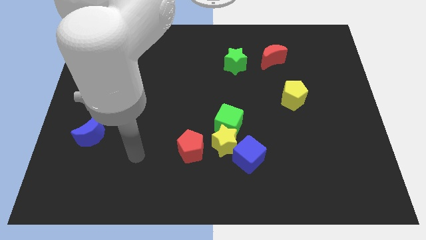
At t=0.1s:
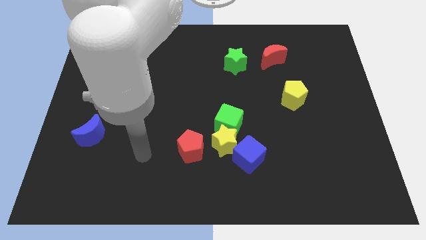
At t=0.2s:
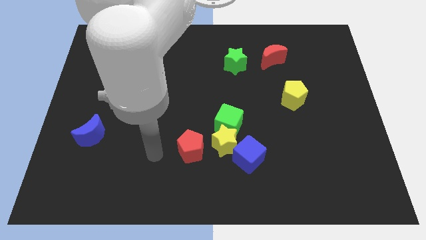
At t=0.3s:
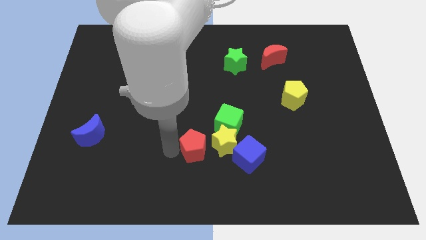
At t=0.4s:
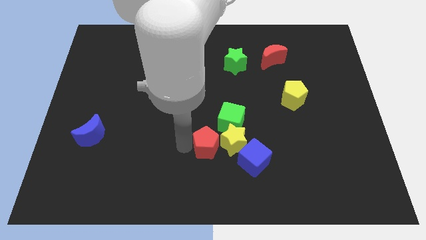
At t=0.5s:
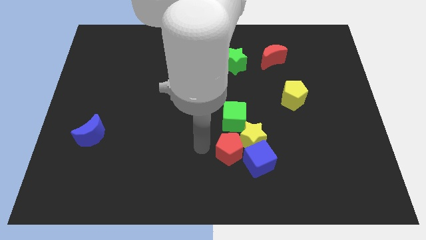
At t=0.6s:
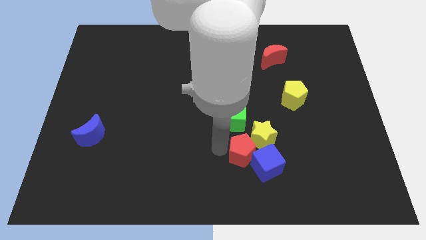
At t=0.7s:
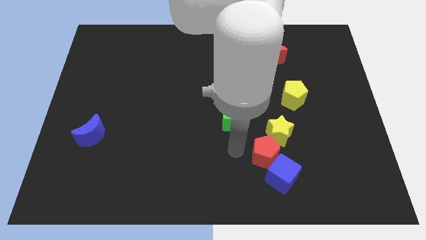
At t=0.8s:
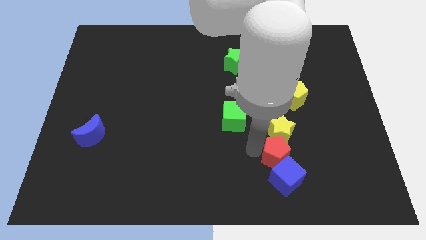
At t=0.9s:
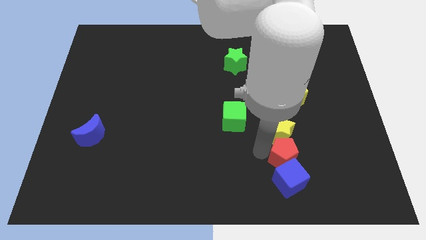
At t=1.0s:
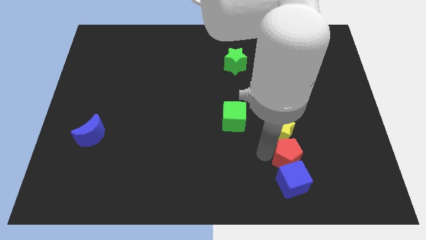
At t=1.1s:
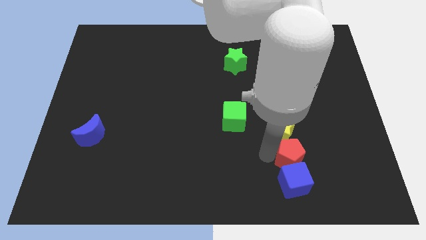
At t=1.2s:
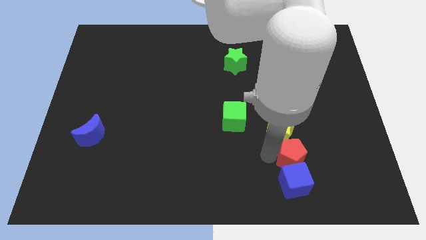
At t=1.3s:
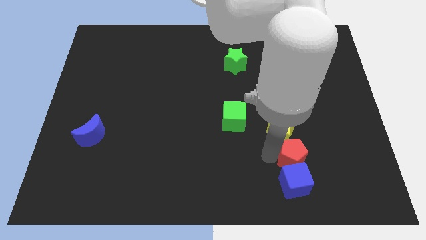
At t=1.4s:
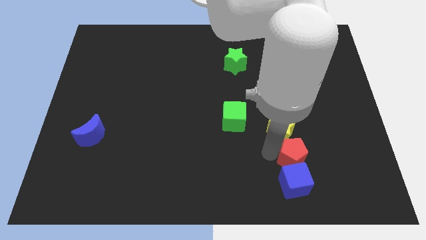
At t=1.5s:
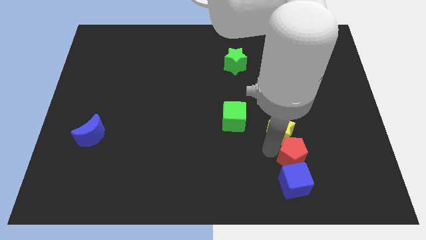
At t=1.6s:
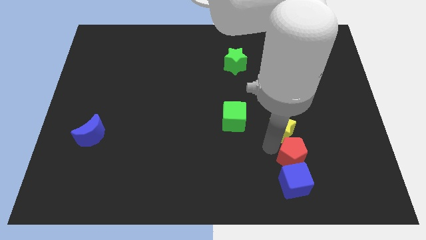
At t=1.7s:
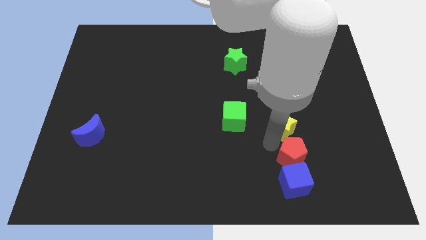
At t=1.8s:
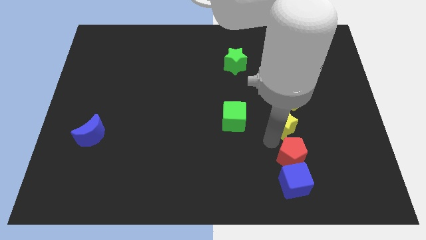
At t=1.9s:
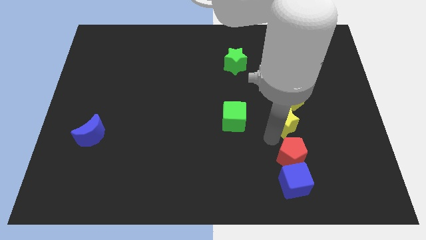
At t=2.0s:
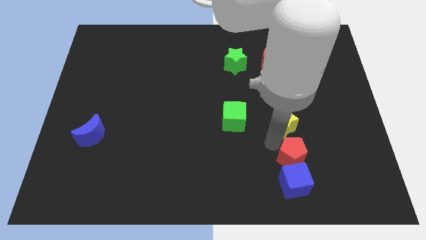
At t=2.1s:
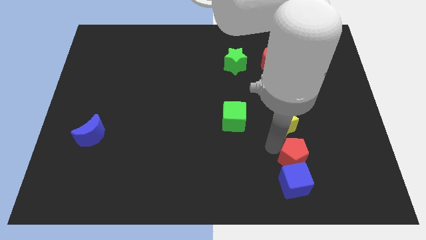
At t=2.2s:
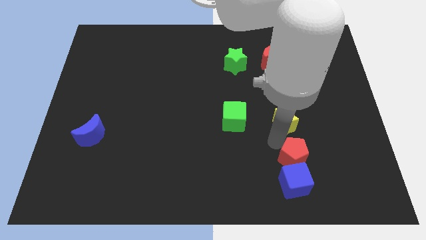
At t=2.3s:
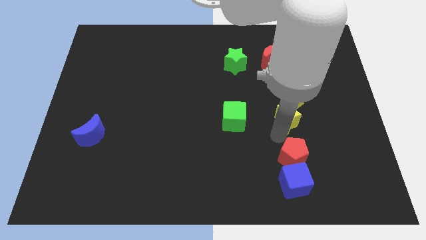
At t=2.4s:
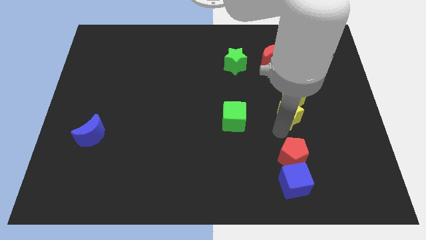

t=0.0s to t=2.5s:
move the yellow star away from the green cube, blue cube, and red pentagon

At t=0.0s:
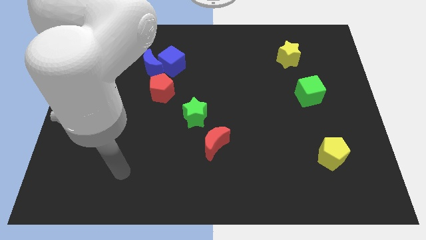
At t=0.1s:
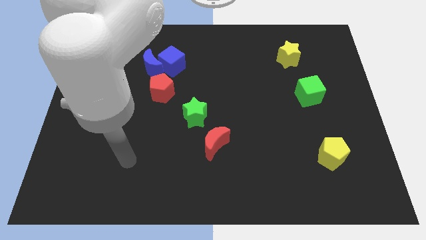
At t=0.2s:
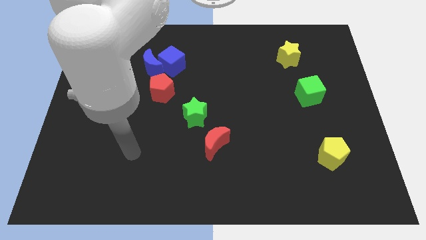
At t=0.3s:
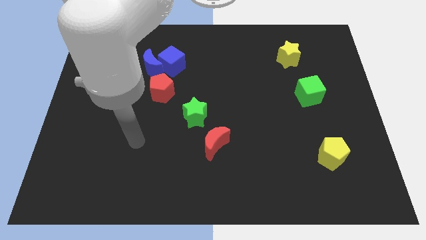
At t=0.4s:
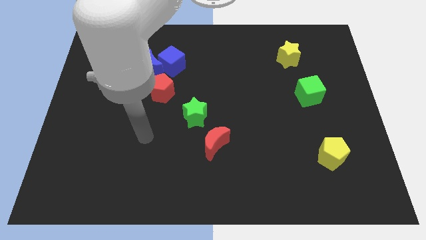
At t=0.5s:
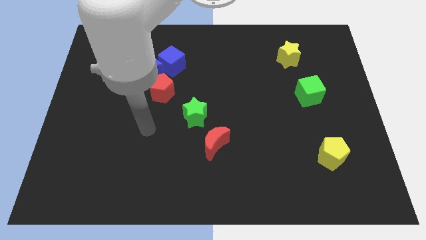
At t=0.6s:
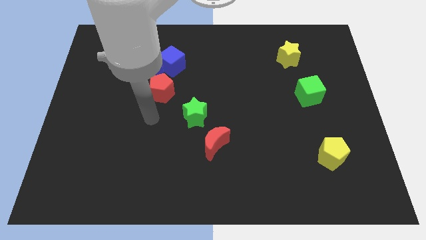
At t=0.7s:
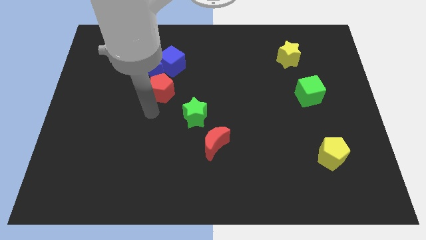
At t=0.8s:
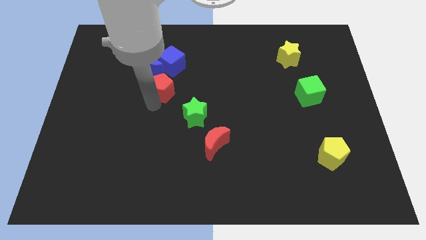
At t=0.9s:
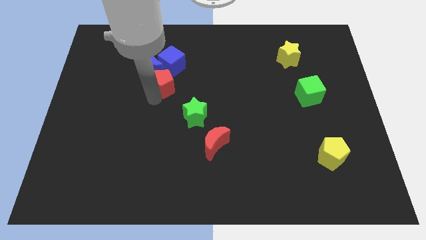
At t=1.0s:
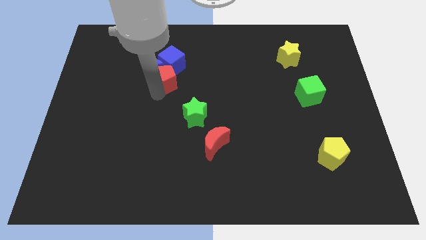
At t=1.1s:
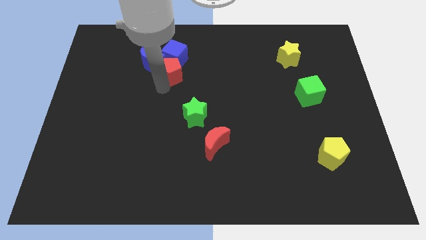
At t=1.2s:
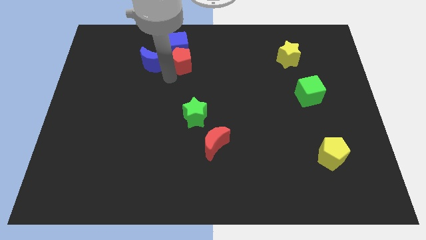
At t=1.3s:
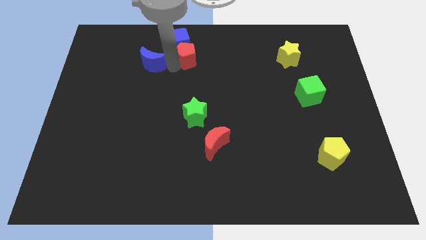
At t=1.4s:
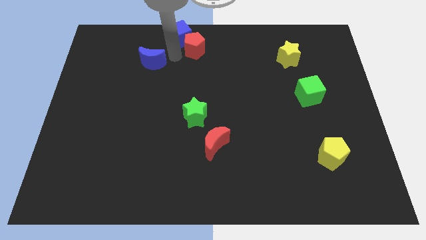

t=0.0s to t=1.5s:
move the blue moon away from the blue cube and red pentagon

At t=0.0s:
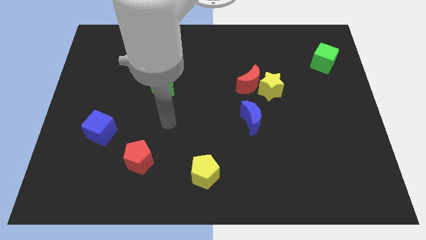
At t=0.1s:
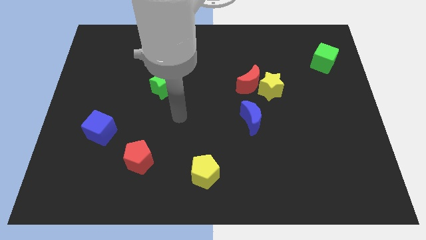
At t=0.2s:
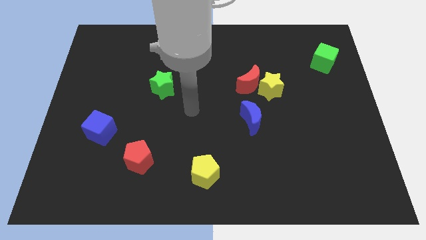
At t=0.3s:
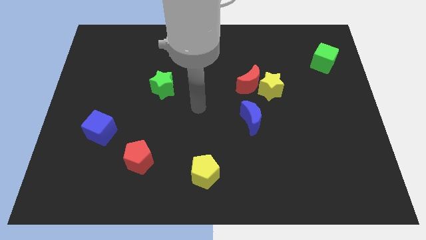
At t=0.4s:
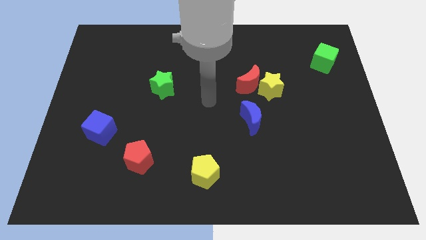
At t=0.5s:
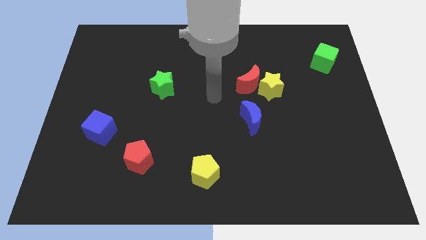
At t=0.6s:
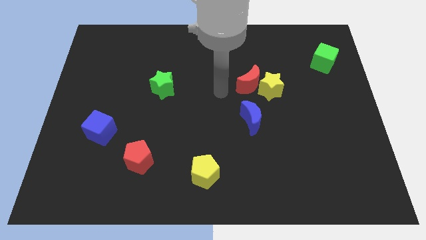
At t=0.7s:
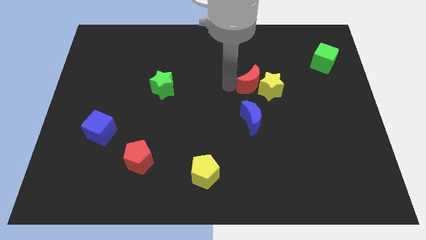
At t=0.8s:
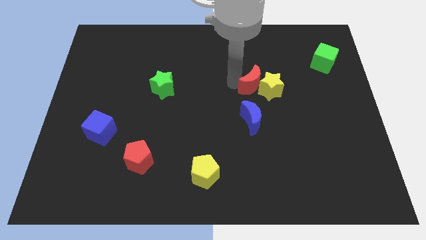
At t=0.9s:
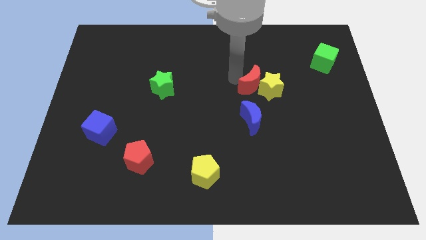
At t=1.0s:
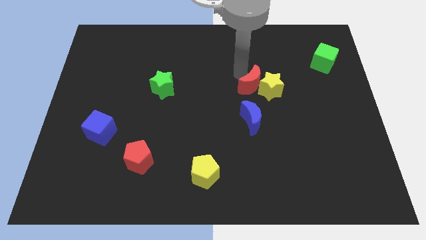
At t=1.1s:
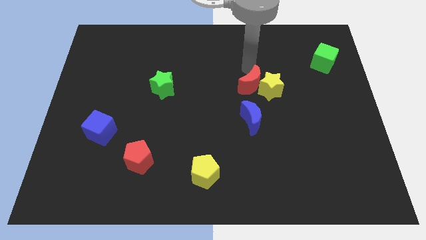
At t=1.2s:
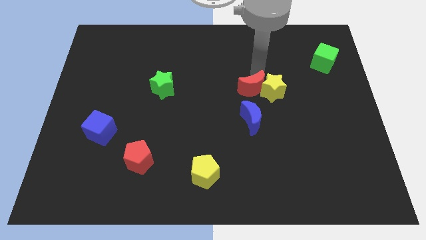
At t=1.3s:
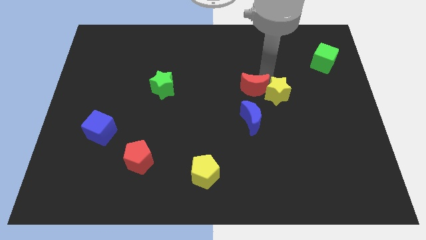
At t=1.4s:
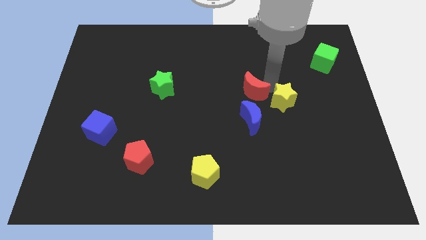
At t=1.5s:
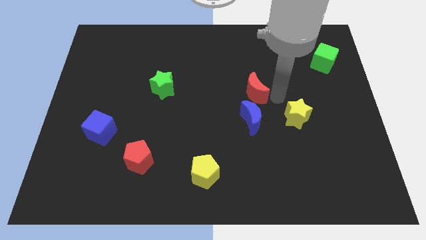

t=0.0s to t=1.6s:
move the red moon away from the yellow star

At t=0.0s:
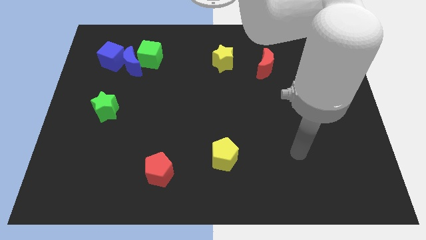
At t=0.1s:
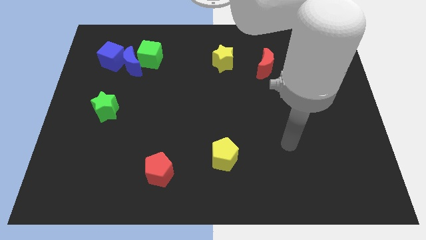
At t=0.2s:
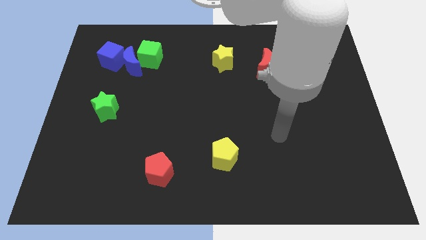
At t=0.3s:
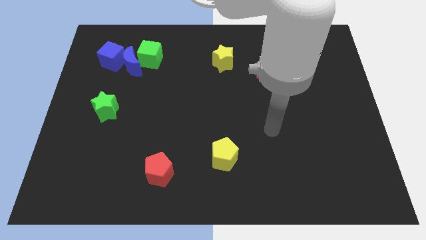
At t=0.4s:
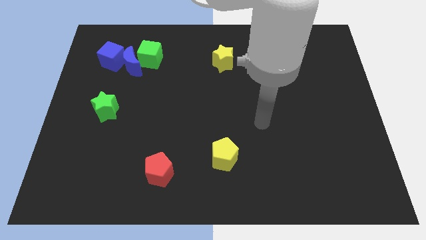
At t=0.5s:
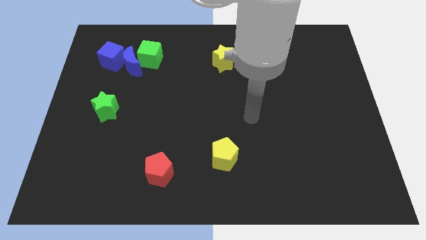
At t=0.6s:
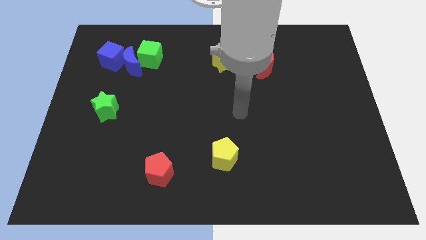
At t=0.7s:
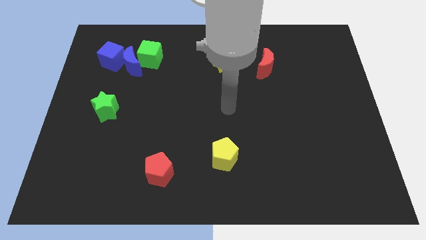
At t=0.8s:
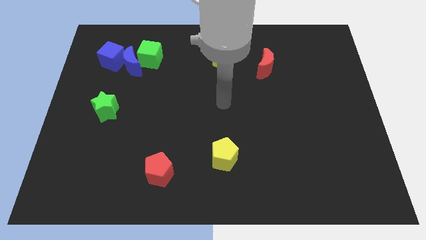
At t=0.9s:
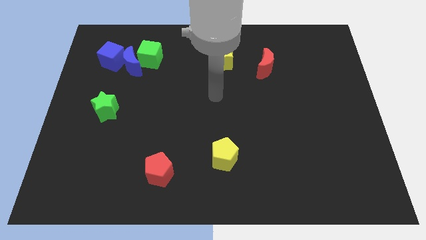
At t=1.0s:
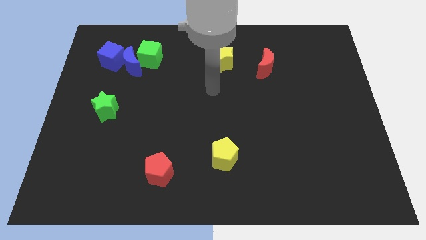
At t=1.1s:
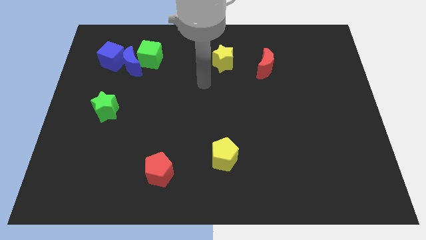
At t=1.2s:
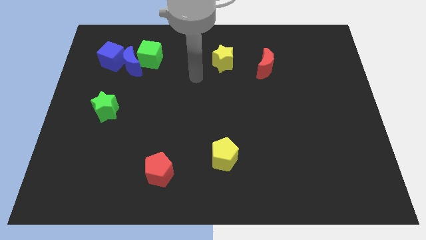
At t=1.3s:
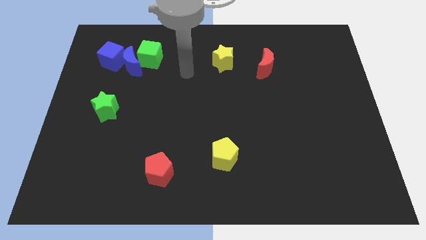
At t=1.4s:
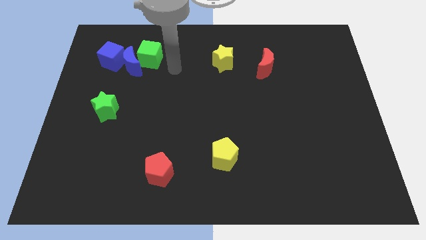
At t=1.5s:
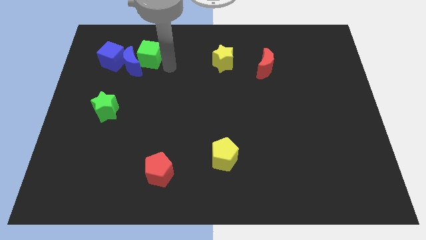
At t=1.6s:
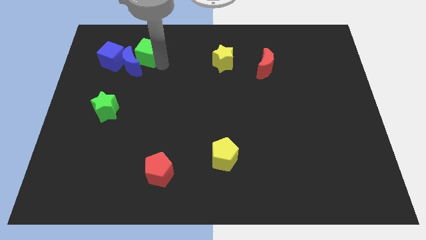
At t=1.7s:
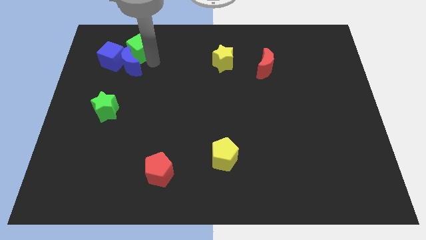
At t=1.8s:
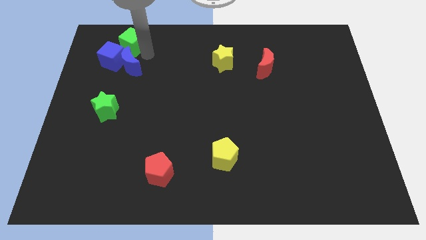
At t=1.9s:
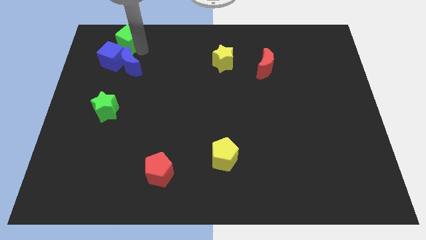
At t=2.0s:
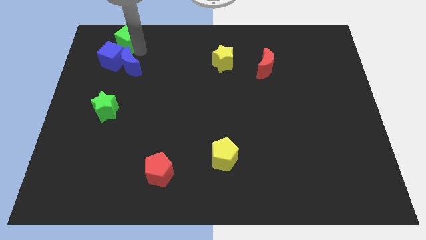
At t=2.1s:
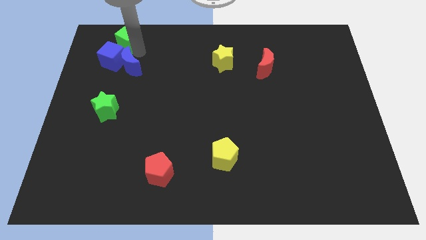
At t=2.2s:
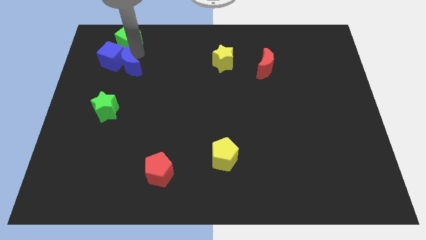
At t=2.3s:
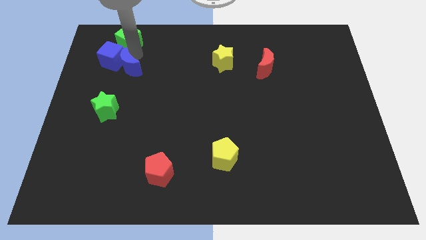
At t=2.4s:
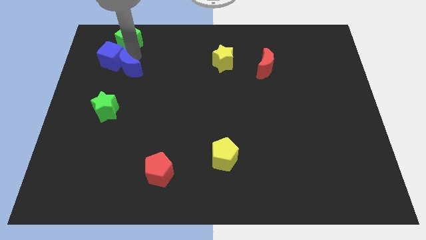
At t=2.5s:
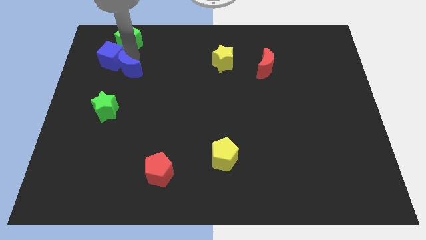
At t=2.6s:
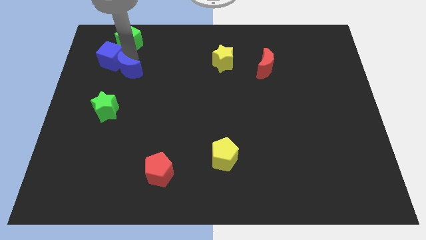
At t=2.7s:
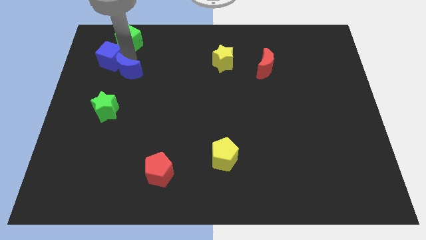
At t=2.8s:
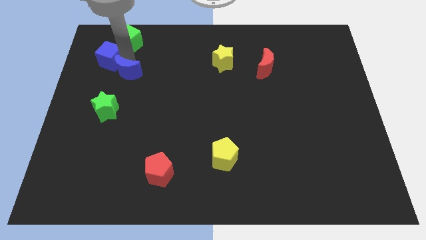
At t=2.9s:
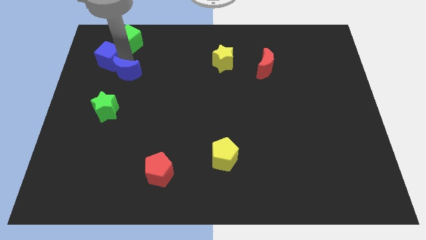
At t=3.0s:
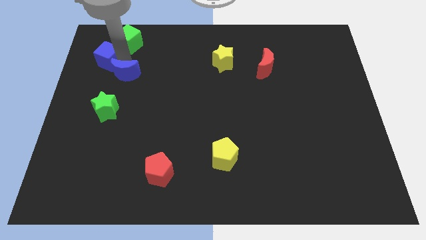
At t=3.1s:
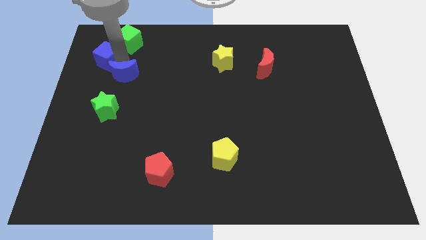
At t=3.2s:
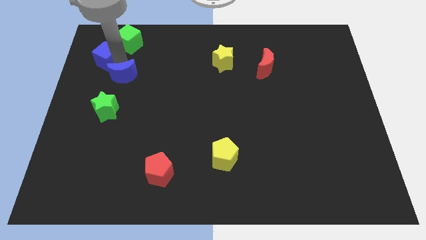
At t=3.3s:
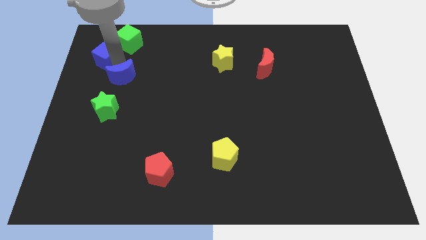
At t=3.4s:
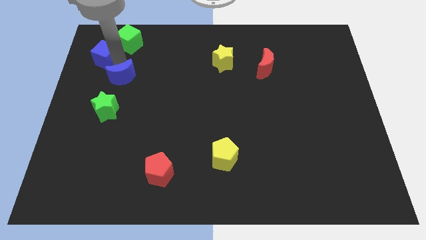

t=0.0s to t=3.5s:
separate the blue moon from the green cube and blue cube

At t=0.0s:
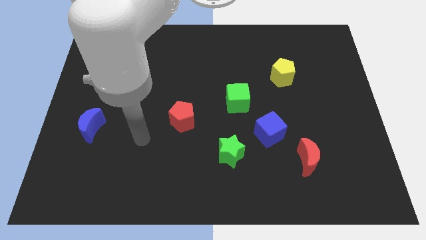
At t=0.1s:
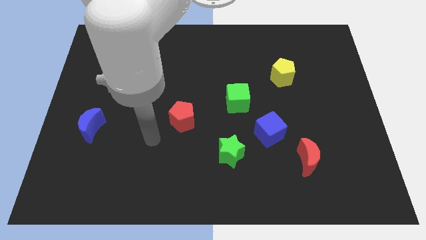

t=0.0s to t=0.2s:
move the red moon away from the blue cube
